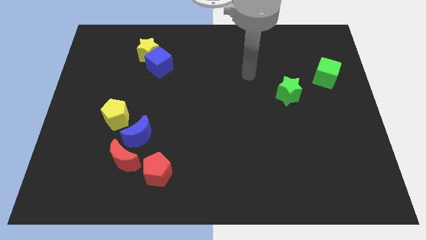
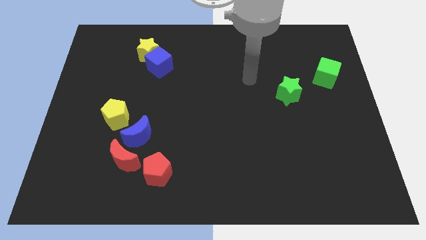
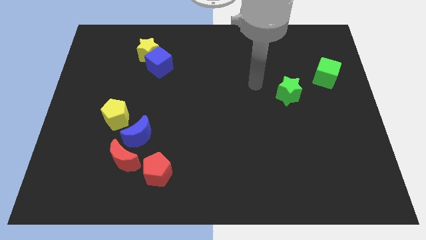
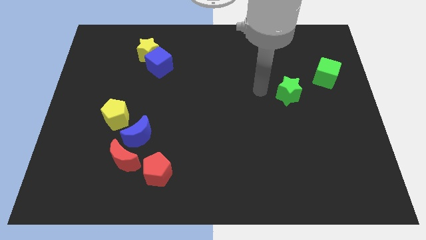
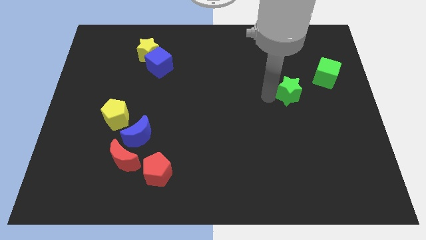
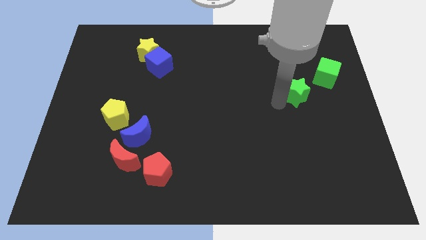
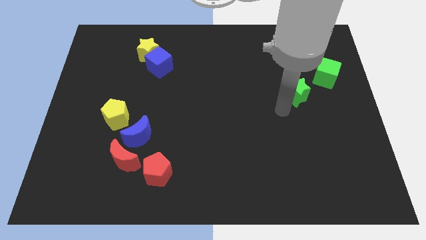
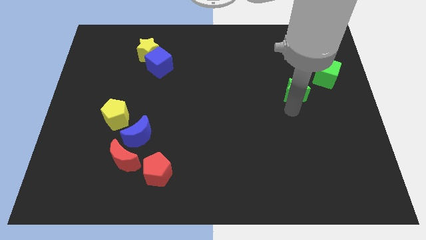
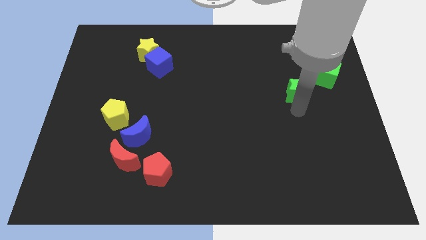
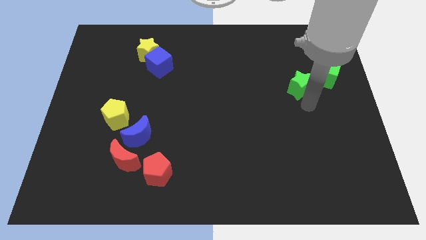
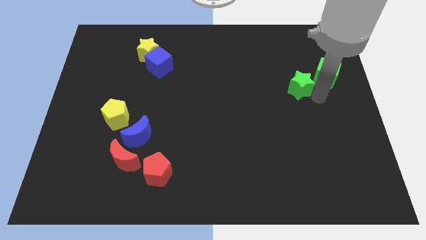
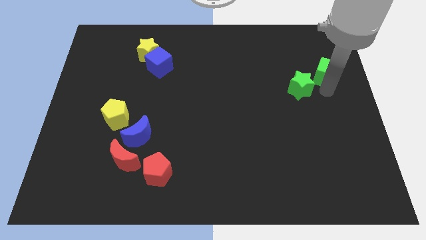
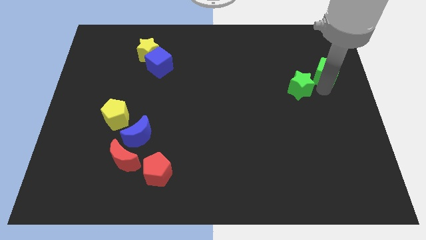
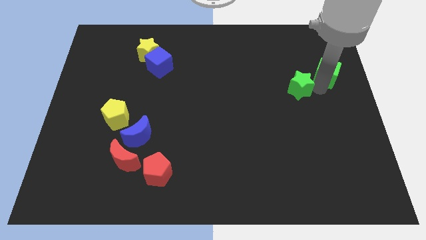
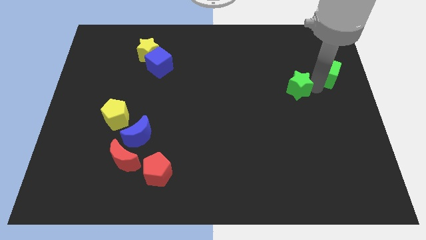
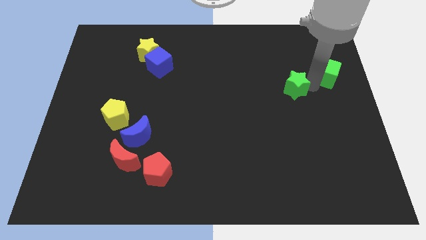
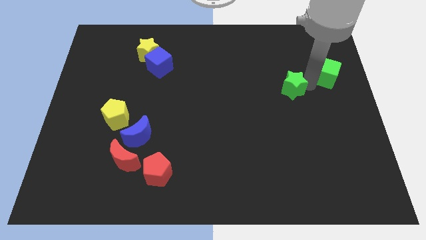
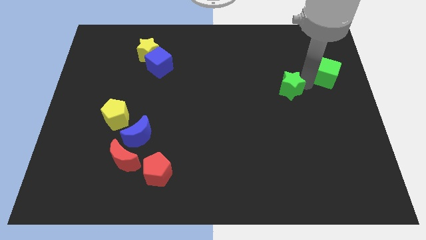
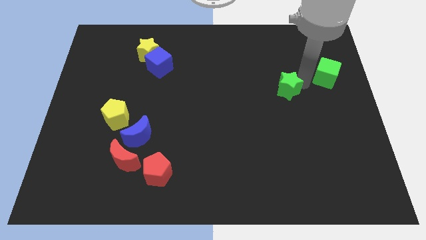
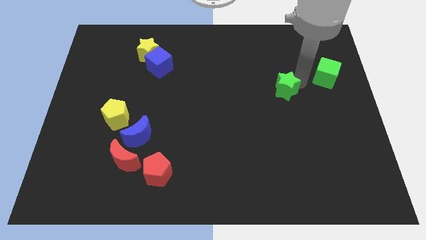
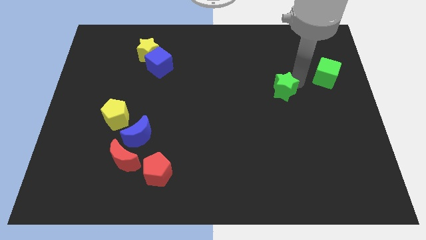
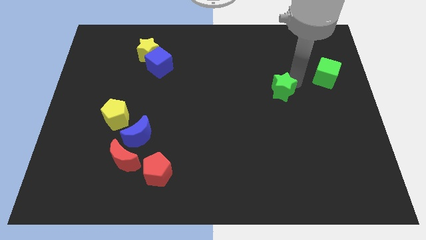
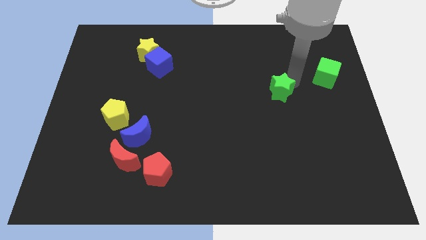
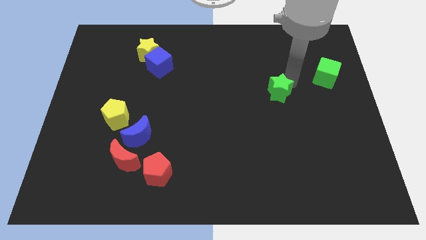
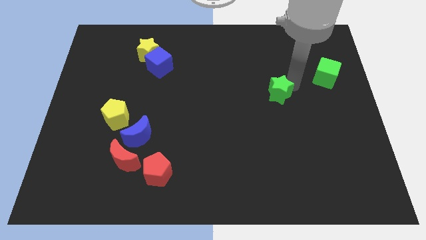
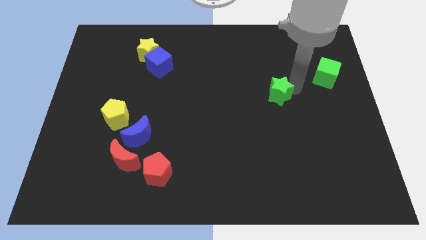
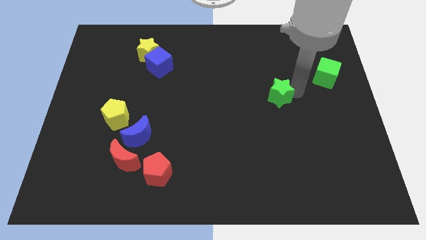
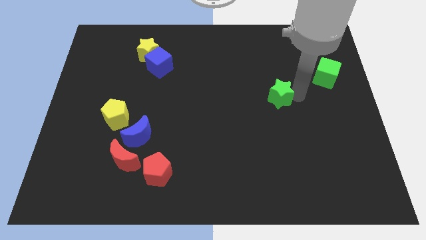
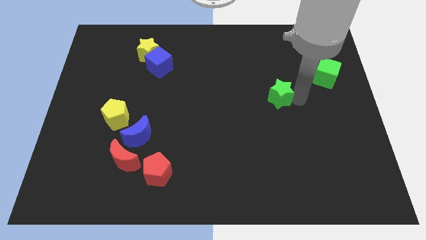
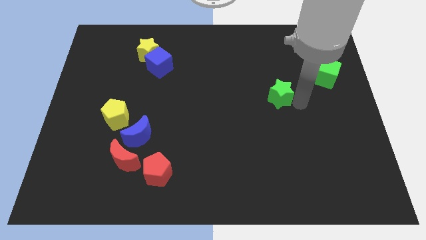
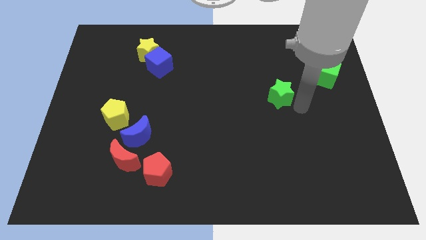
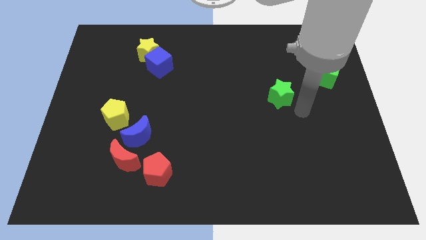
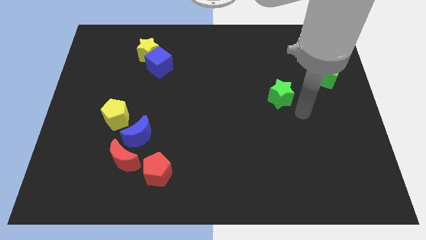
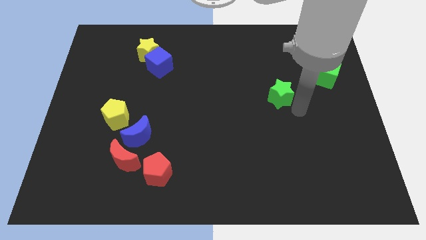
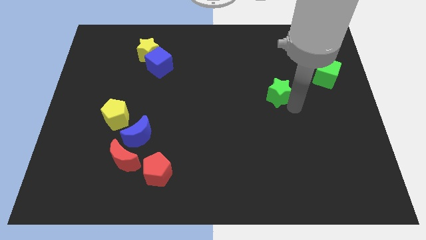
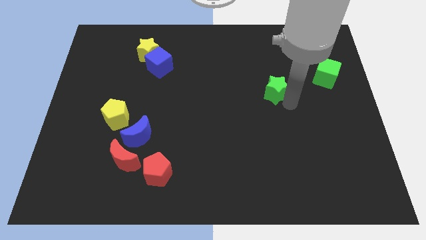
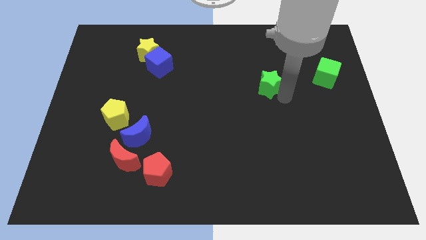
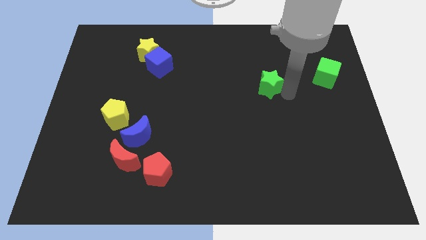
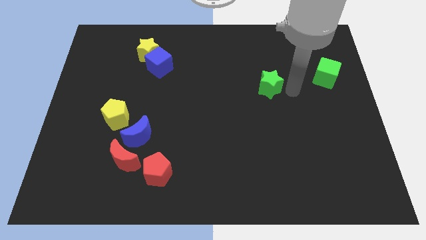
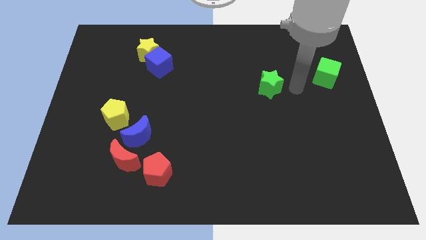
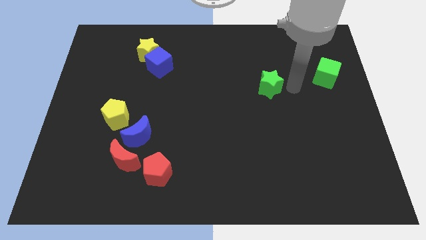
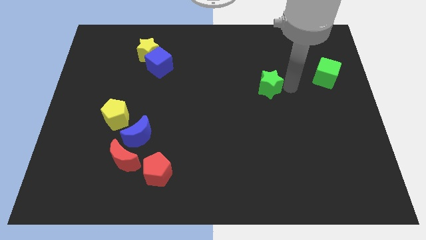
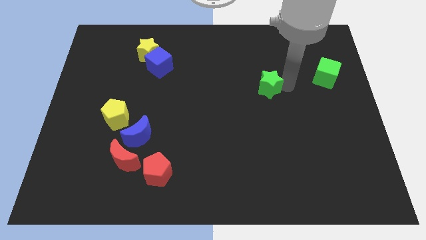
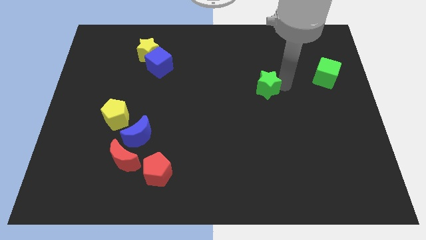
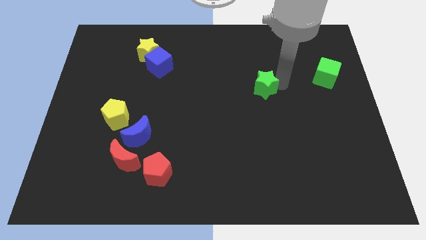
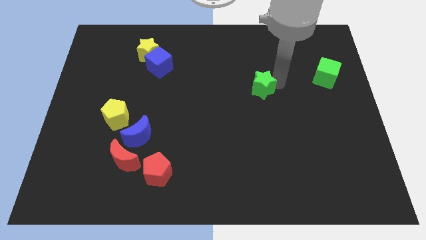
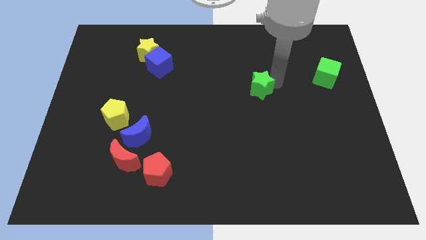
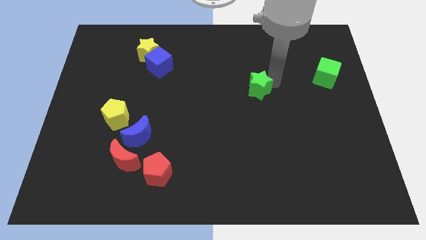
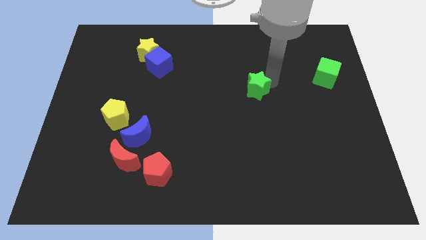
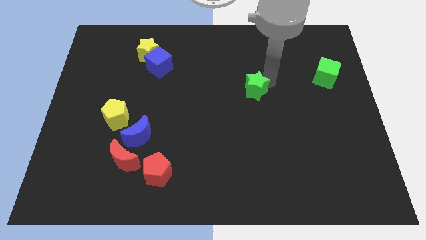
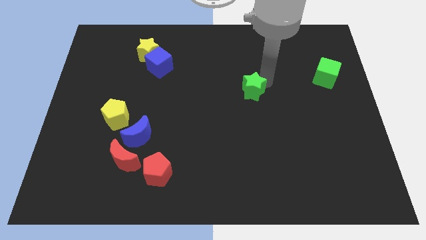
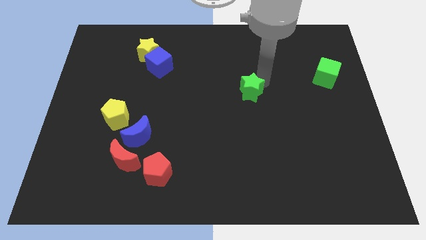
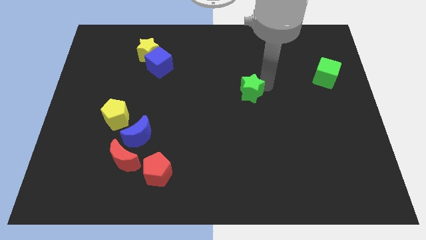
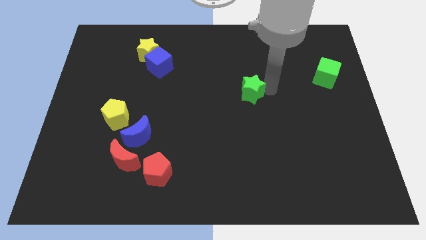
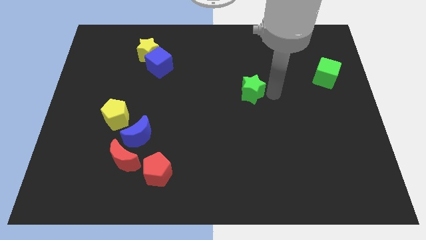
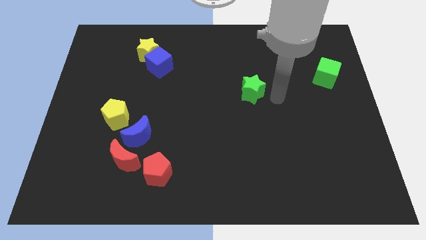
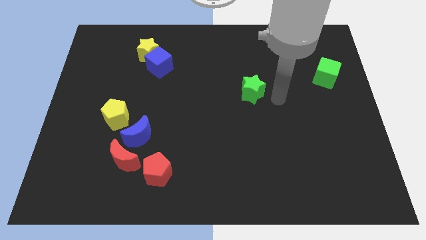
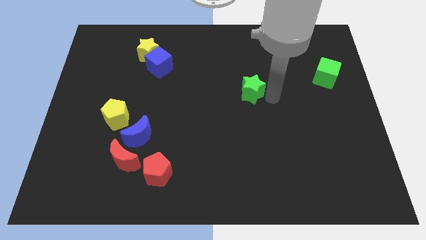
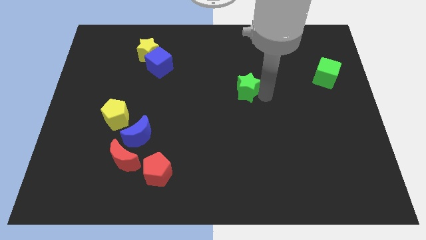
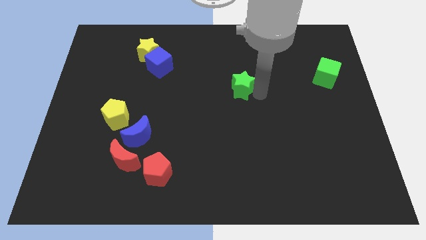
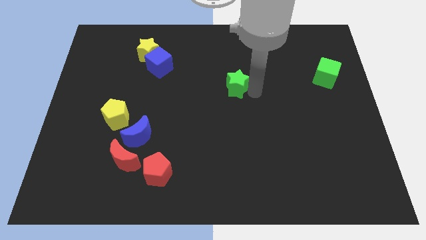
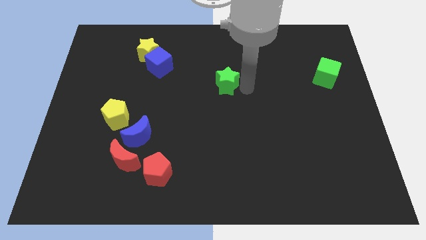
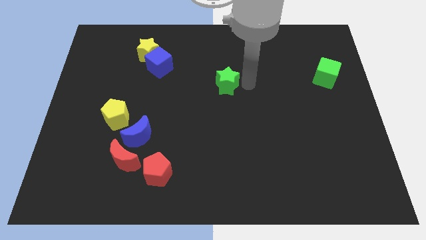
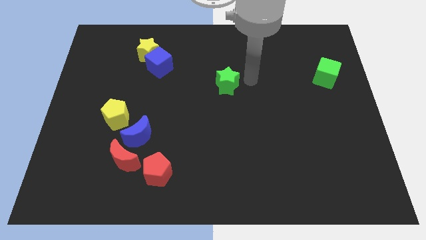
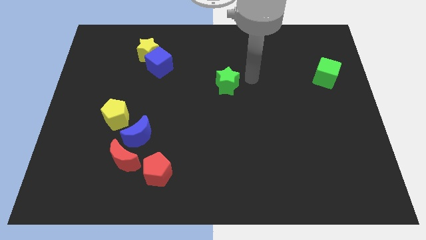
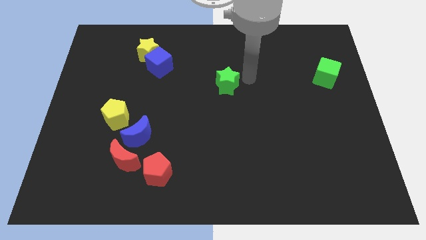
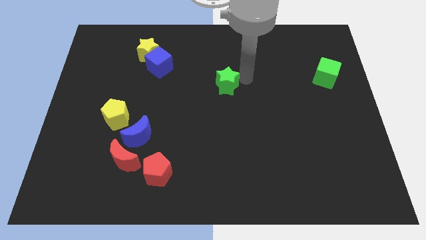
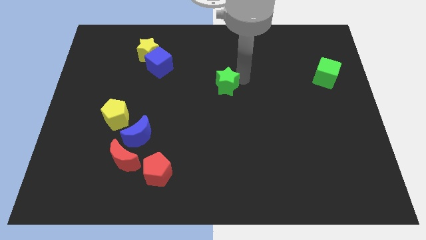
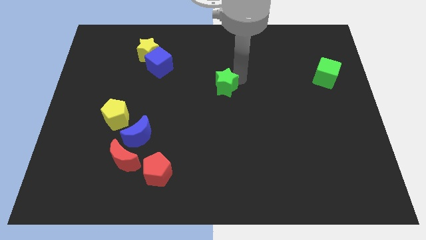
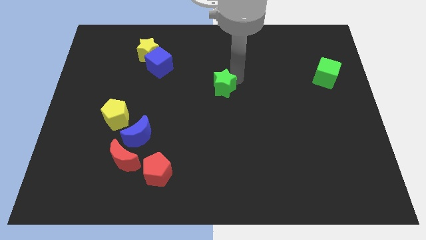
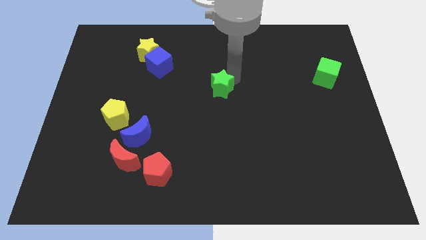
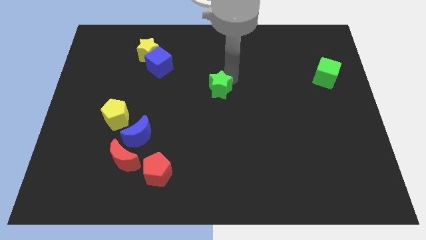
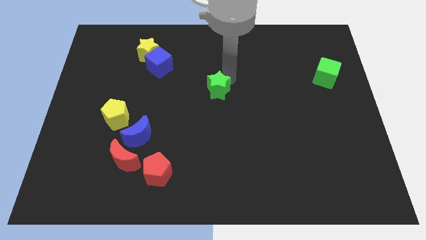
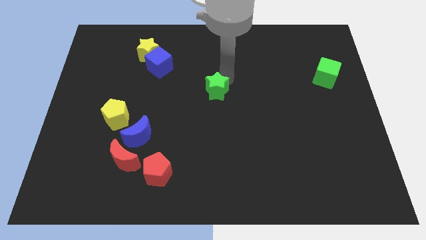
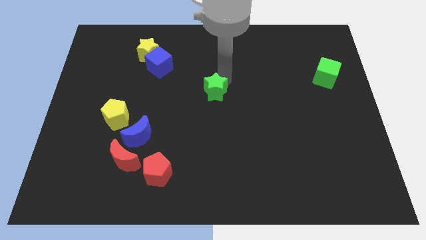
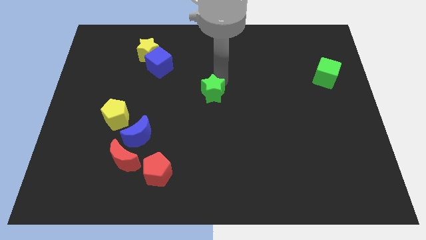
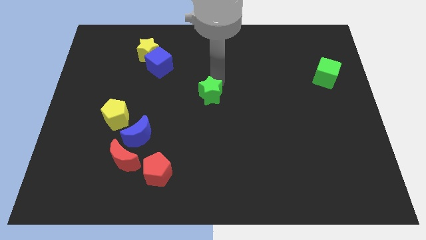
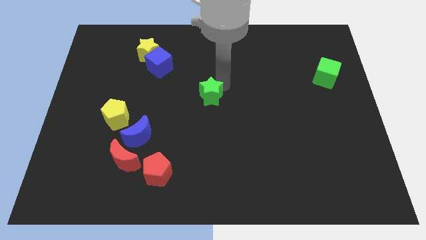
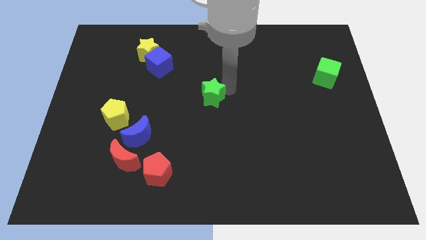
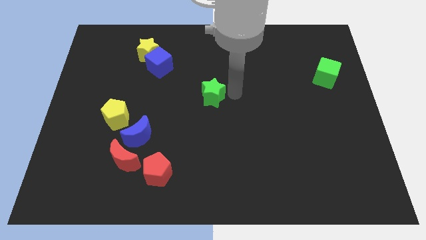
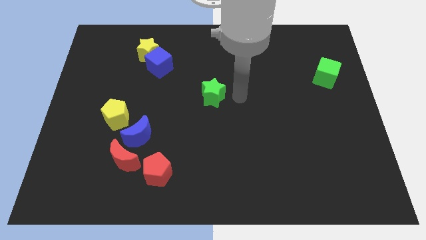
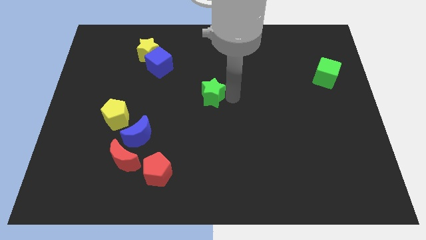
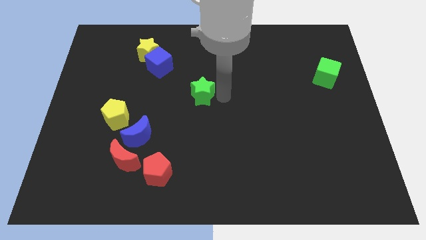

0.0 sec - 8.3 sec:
slide the green star to the left
